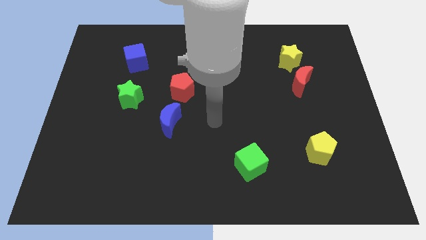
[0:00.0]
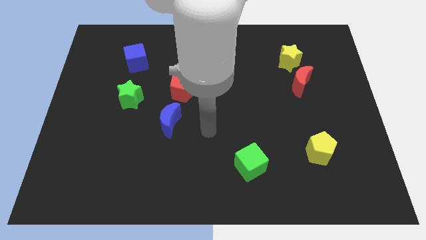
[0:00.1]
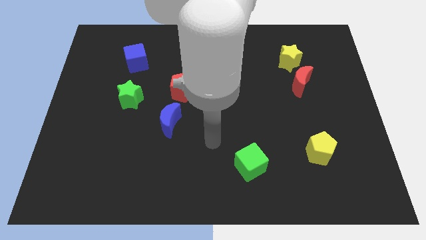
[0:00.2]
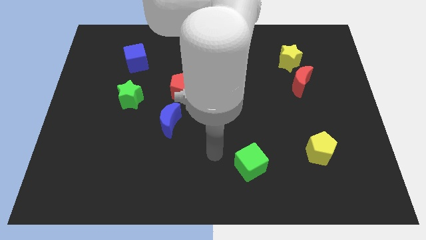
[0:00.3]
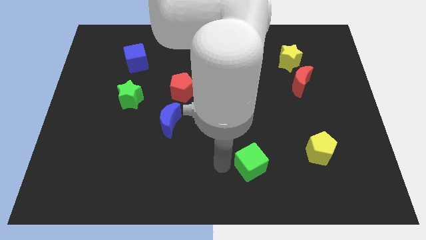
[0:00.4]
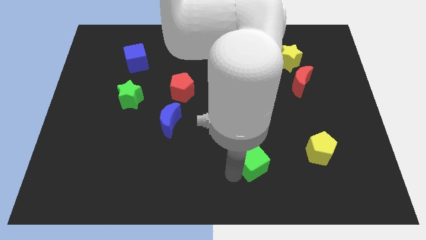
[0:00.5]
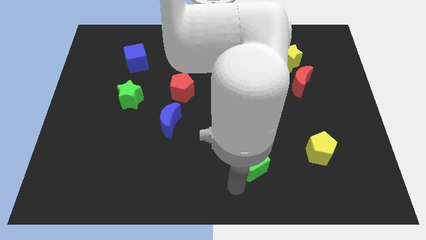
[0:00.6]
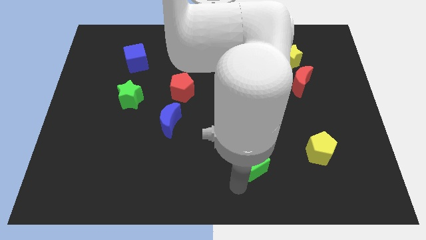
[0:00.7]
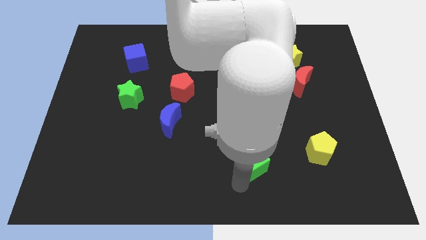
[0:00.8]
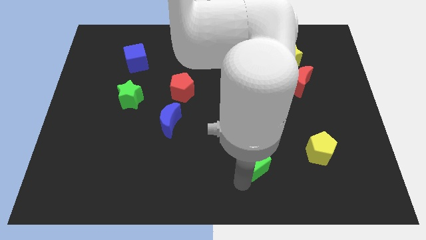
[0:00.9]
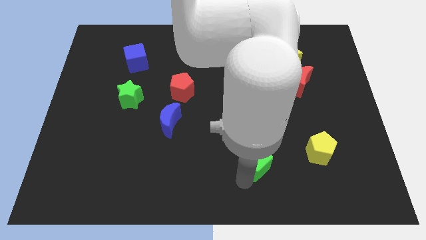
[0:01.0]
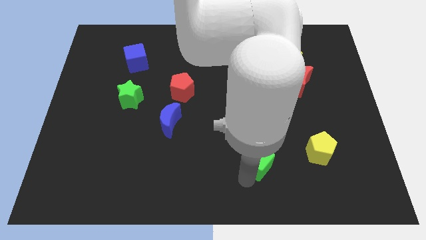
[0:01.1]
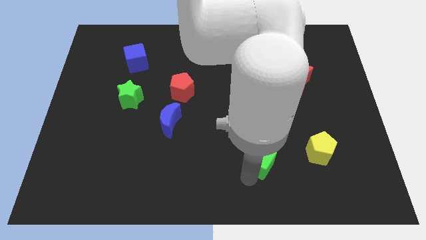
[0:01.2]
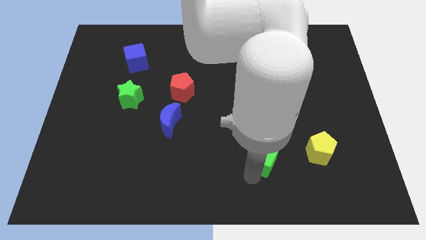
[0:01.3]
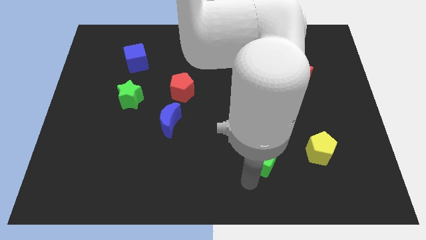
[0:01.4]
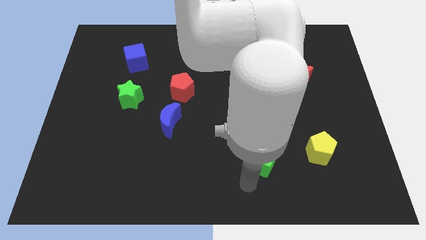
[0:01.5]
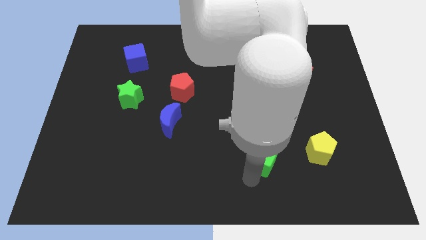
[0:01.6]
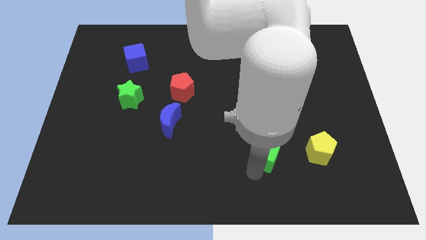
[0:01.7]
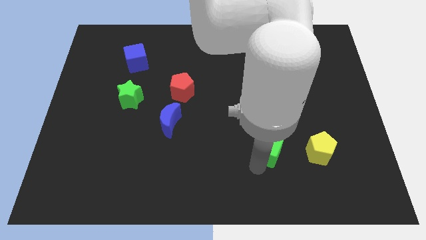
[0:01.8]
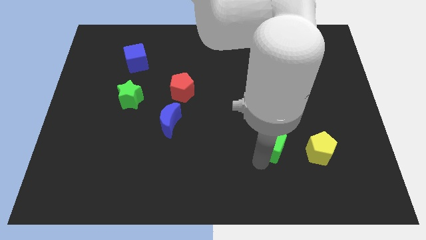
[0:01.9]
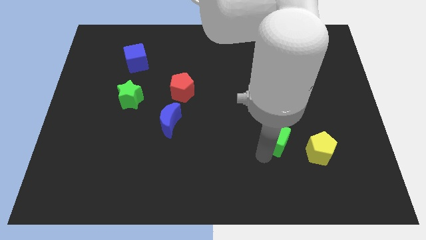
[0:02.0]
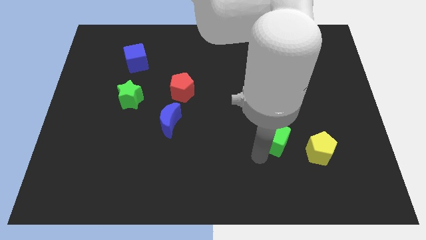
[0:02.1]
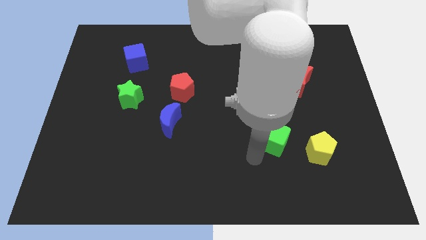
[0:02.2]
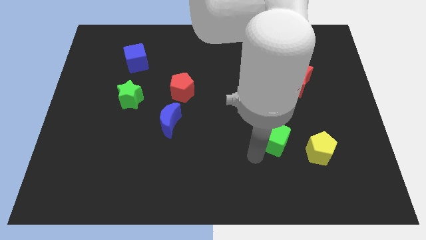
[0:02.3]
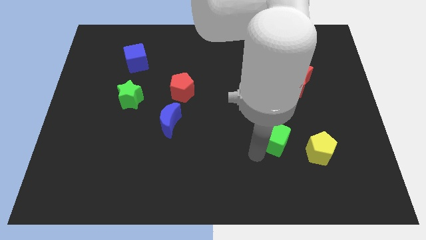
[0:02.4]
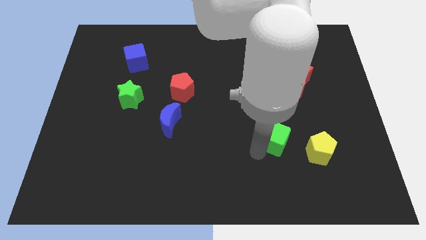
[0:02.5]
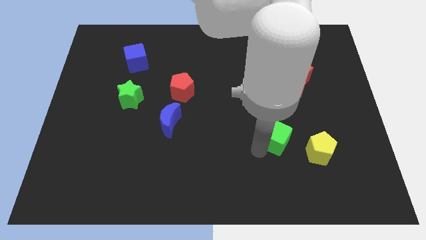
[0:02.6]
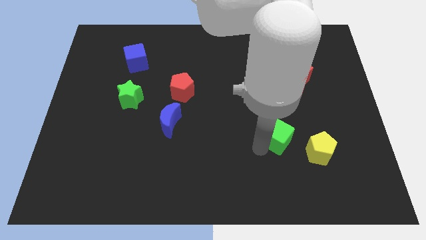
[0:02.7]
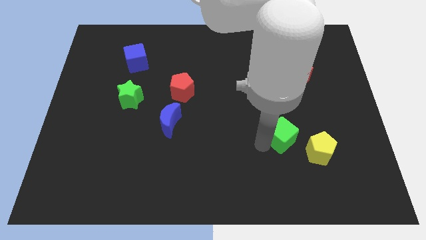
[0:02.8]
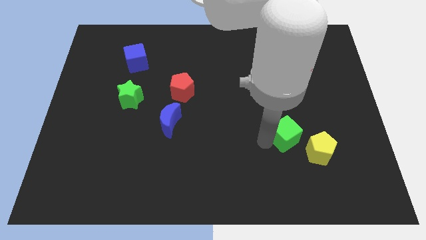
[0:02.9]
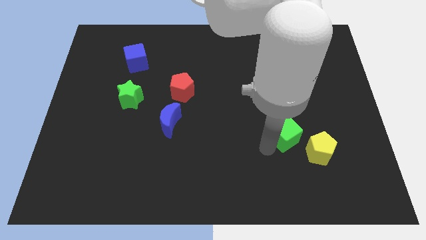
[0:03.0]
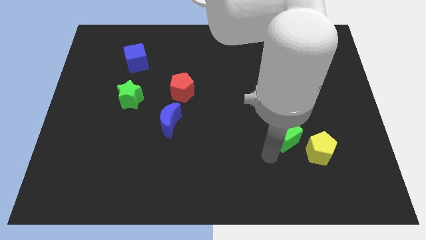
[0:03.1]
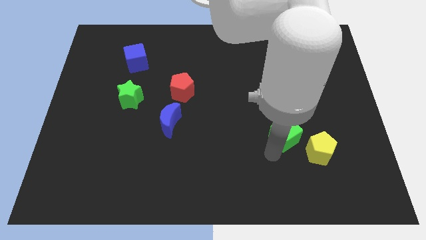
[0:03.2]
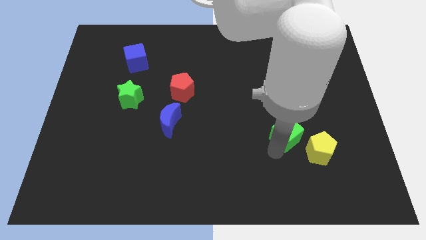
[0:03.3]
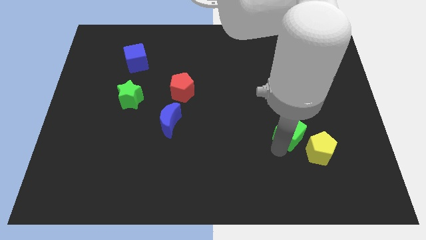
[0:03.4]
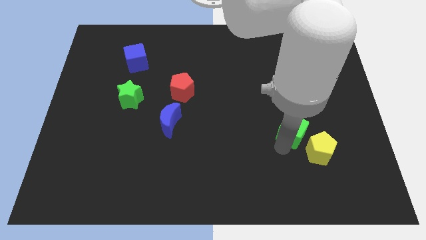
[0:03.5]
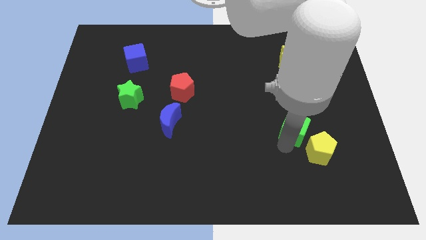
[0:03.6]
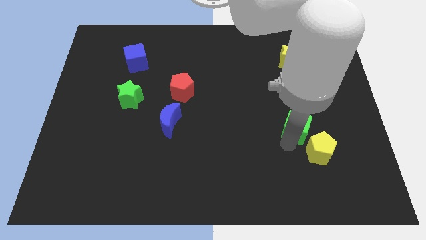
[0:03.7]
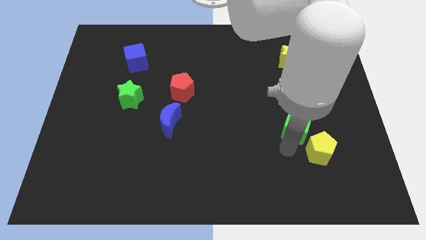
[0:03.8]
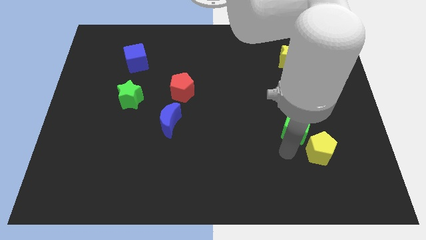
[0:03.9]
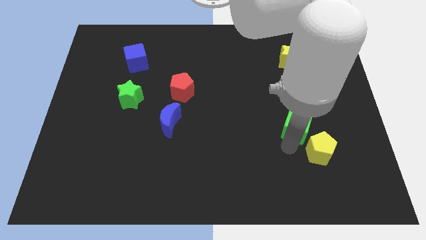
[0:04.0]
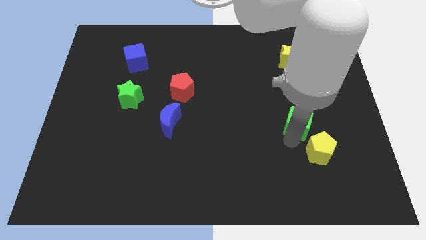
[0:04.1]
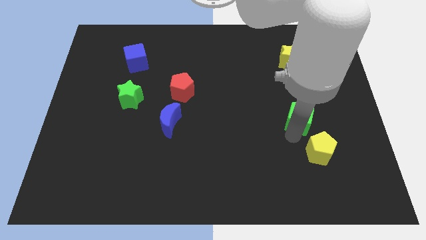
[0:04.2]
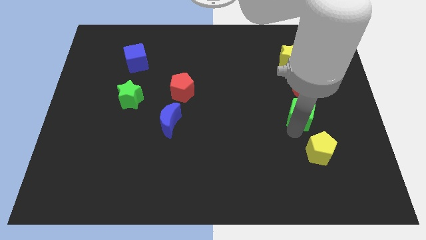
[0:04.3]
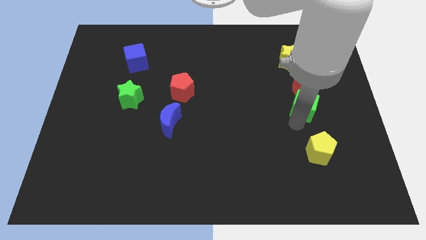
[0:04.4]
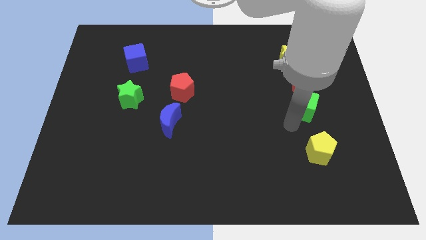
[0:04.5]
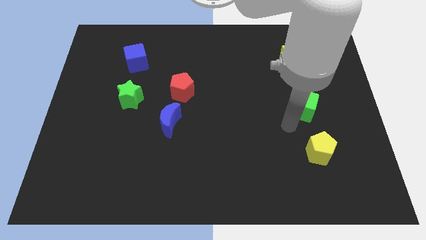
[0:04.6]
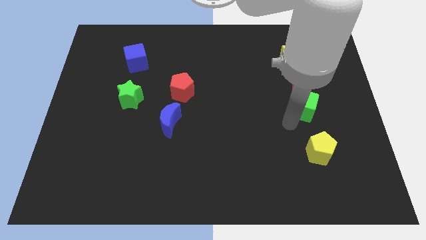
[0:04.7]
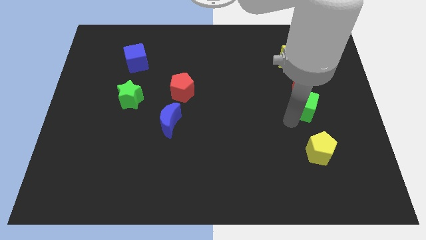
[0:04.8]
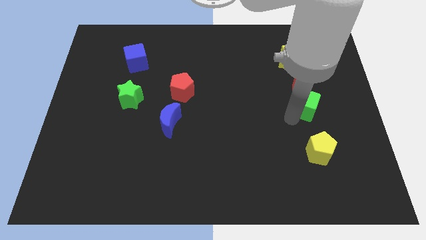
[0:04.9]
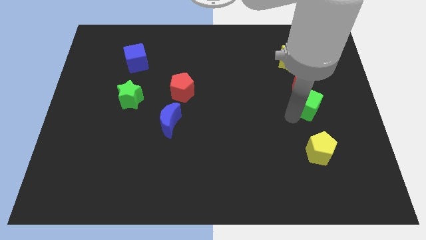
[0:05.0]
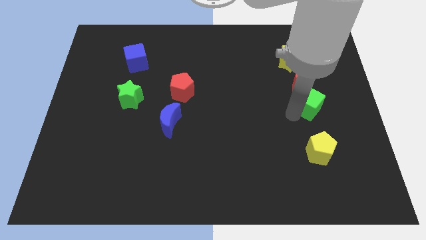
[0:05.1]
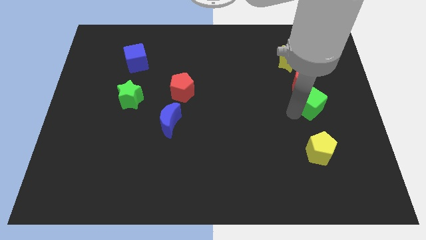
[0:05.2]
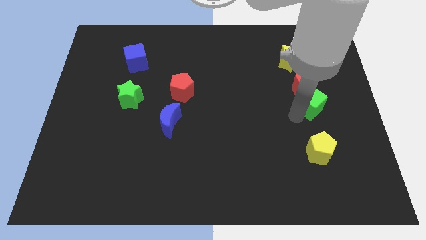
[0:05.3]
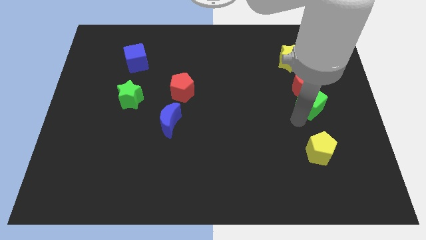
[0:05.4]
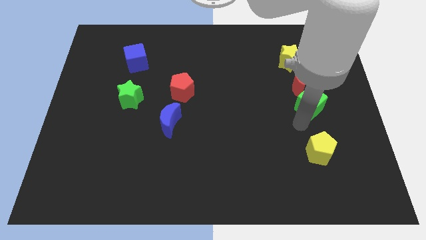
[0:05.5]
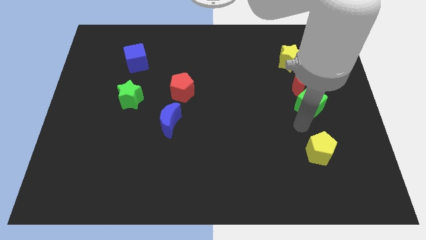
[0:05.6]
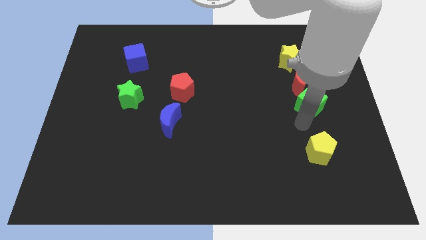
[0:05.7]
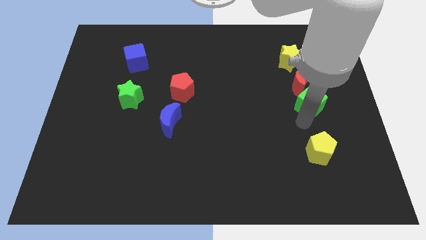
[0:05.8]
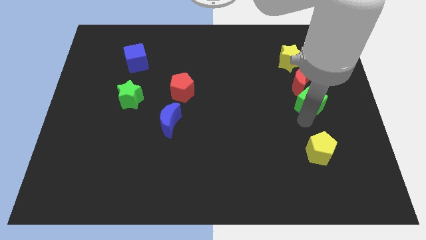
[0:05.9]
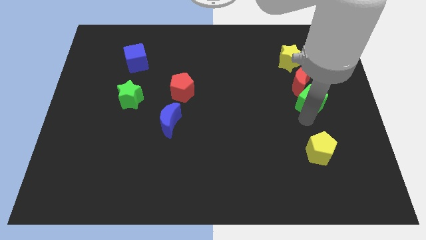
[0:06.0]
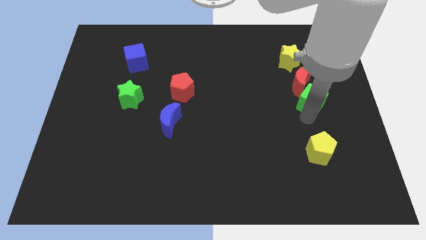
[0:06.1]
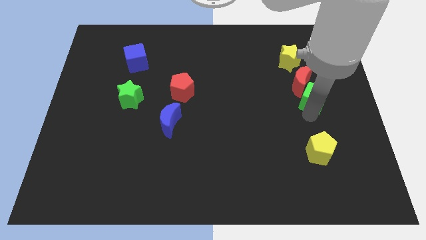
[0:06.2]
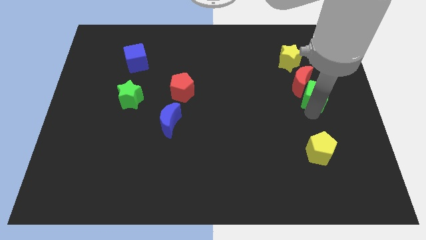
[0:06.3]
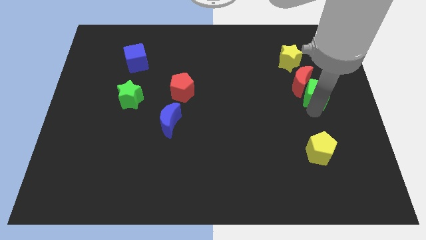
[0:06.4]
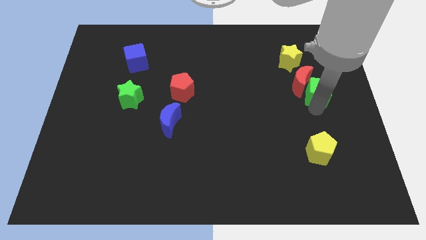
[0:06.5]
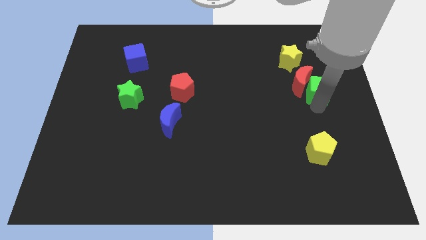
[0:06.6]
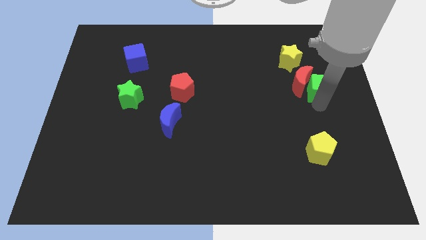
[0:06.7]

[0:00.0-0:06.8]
slide the green cube to the bottom right side of the yellow star
